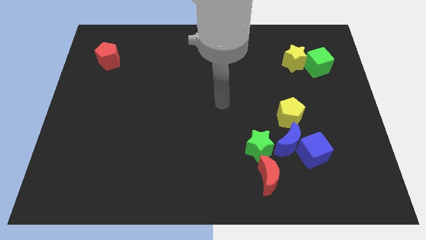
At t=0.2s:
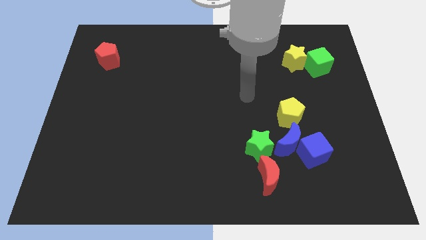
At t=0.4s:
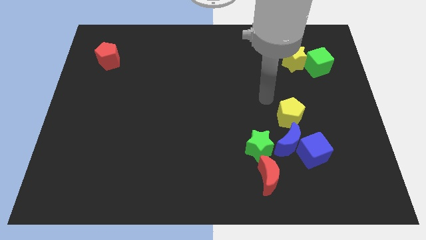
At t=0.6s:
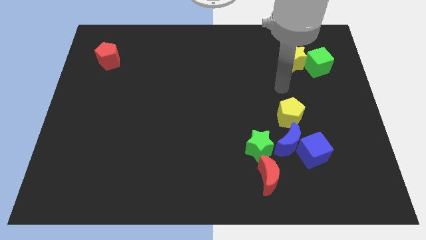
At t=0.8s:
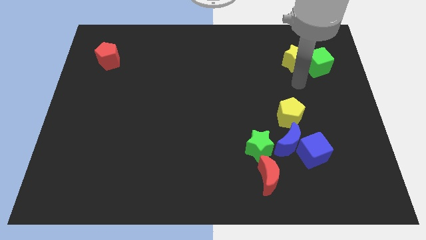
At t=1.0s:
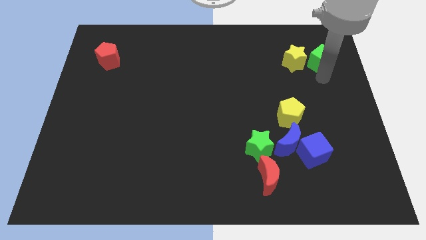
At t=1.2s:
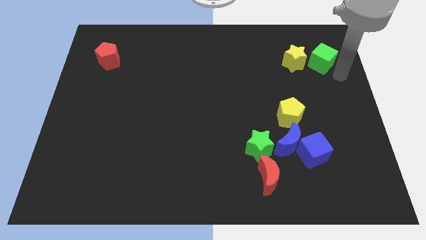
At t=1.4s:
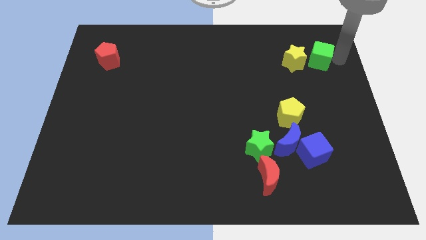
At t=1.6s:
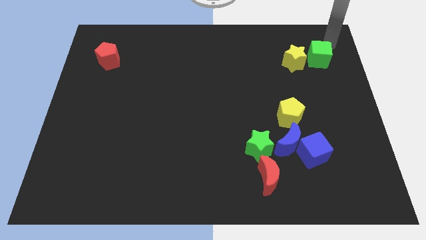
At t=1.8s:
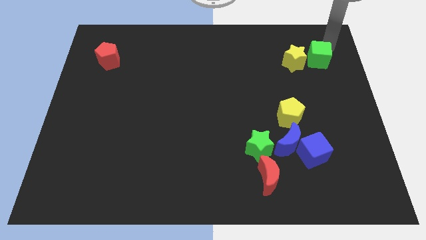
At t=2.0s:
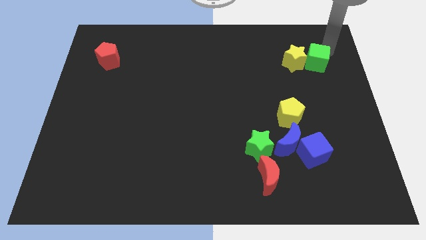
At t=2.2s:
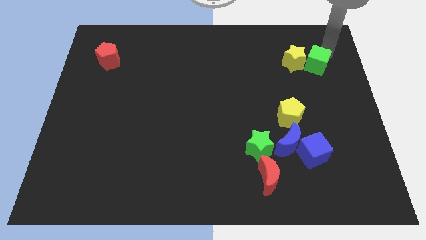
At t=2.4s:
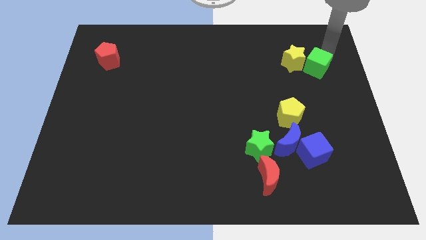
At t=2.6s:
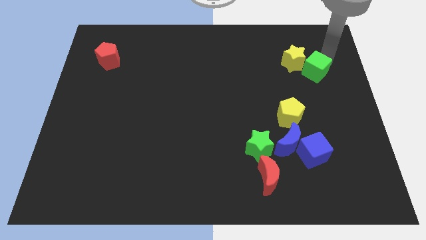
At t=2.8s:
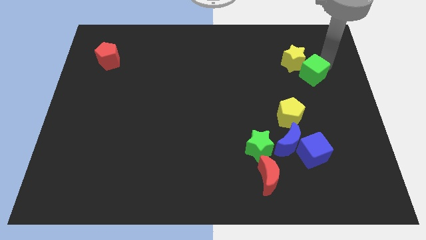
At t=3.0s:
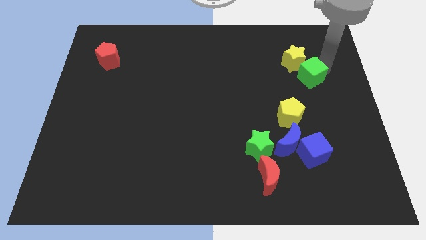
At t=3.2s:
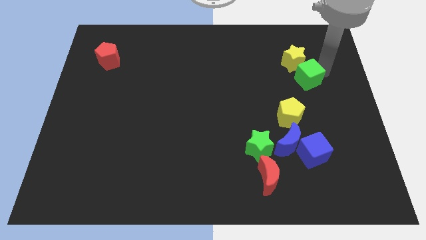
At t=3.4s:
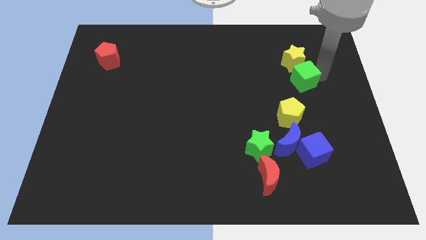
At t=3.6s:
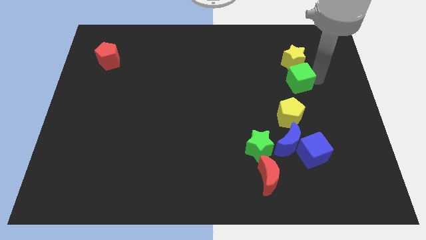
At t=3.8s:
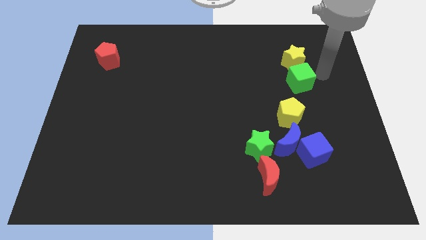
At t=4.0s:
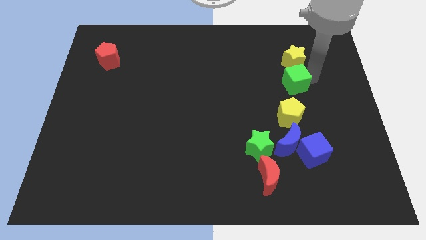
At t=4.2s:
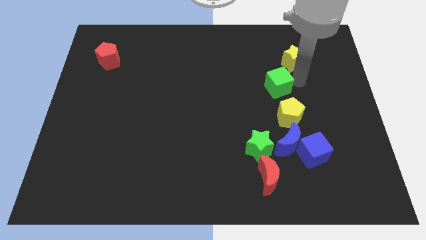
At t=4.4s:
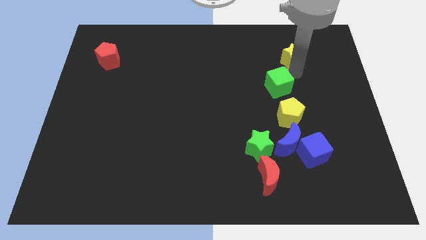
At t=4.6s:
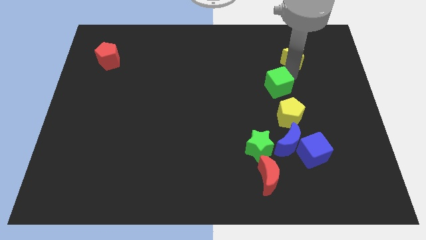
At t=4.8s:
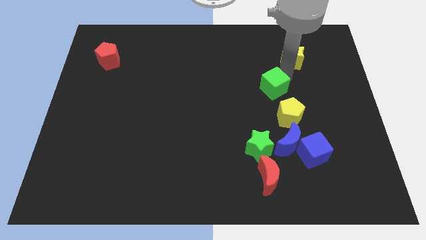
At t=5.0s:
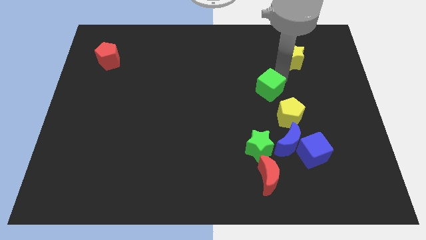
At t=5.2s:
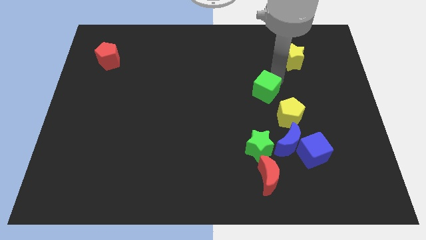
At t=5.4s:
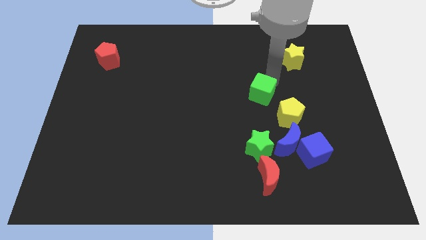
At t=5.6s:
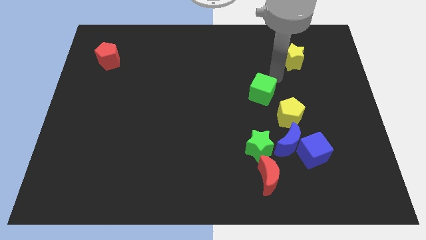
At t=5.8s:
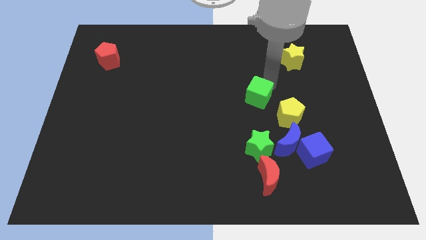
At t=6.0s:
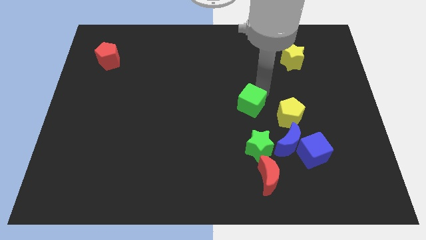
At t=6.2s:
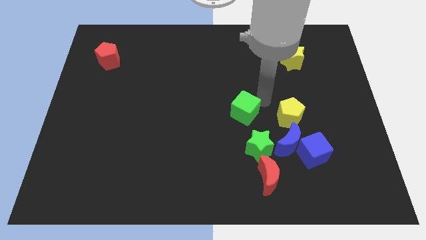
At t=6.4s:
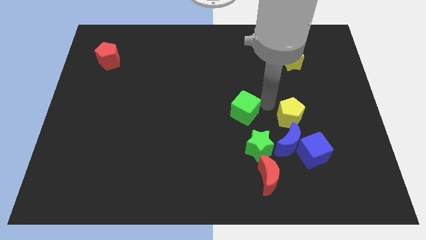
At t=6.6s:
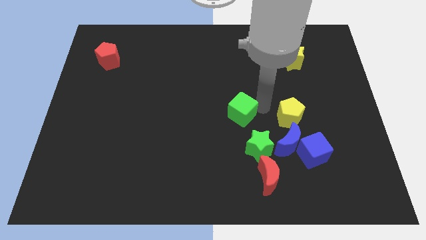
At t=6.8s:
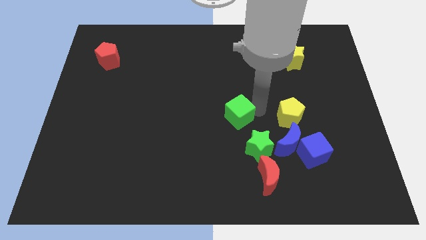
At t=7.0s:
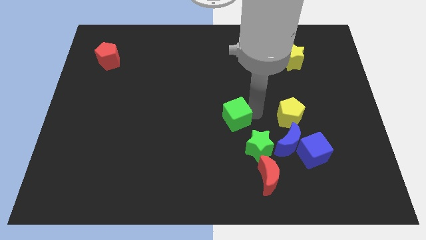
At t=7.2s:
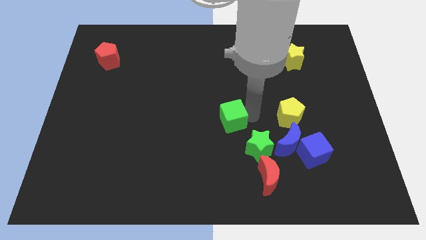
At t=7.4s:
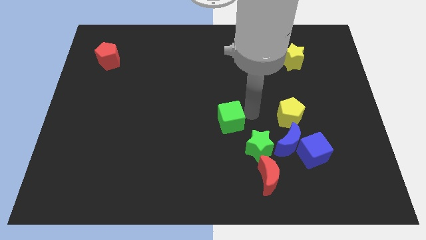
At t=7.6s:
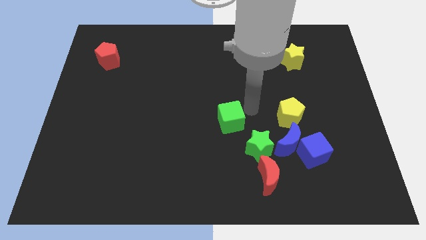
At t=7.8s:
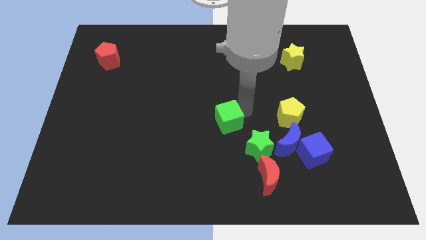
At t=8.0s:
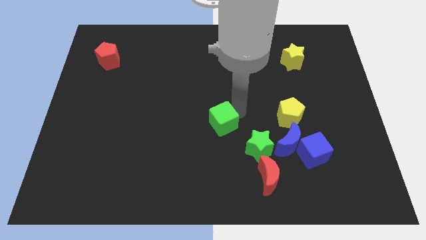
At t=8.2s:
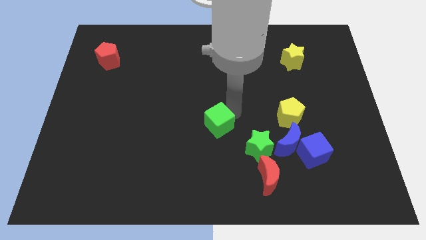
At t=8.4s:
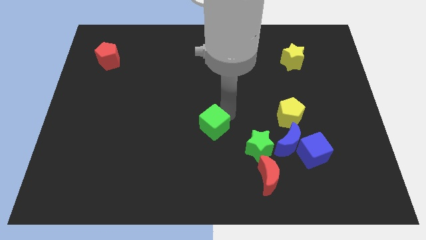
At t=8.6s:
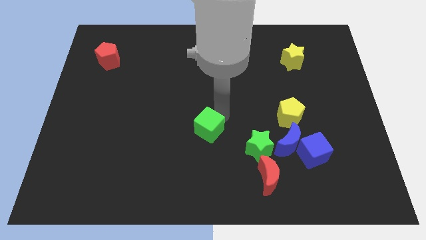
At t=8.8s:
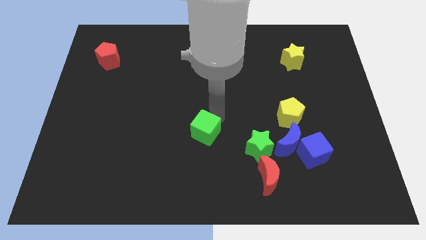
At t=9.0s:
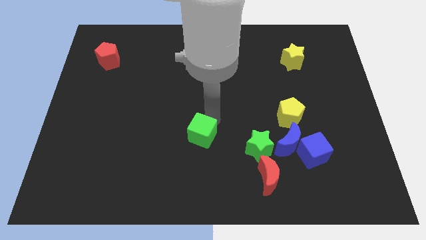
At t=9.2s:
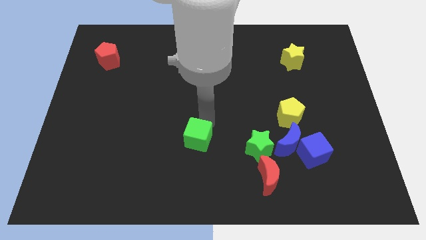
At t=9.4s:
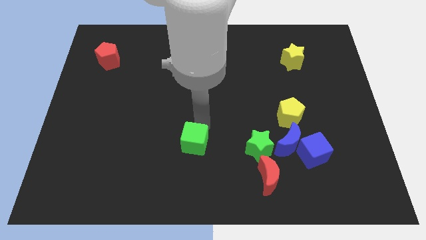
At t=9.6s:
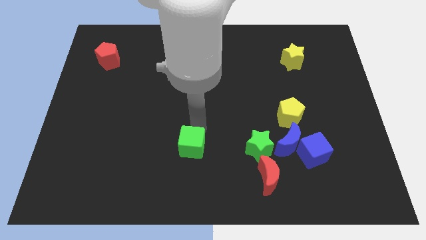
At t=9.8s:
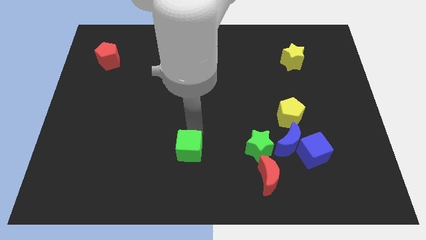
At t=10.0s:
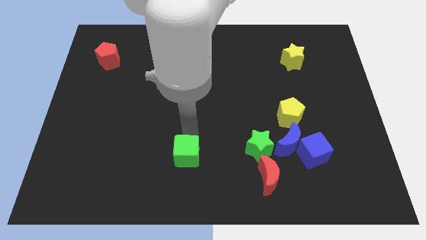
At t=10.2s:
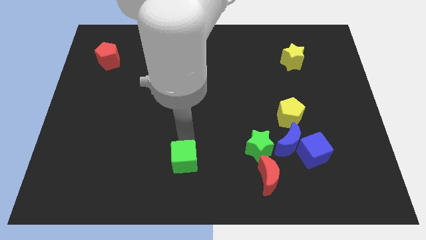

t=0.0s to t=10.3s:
slide the green cube to the bottom

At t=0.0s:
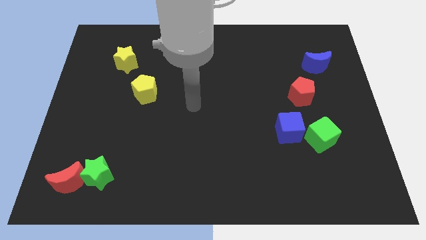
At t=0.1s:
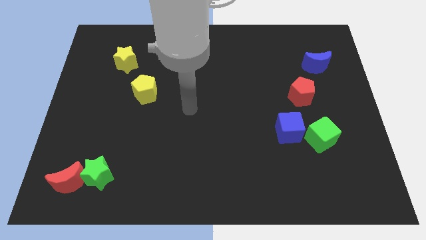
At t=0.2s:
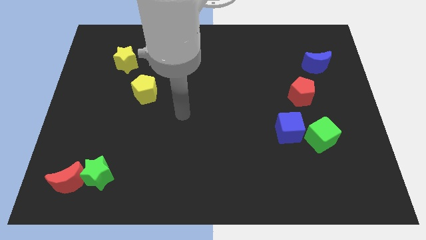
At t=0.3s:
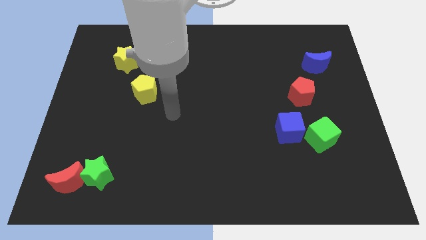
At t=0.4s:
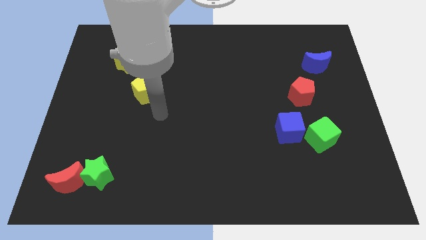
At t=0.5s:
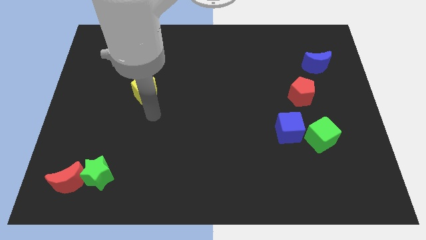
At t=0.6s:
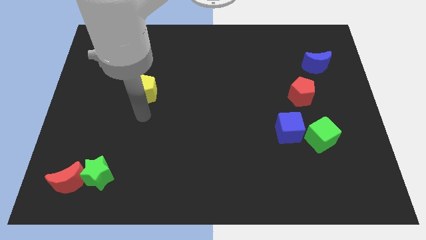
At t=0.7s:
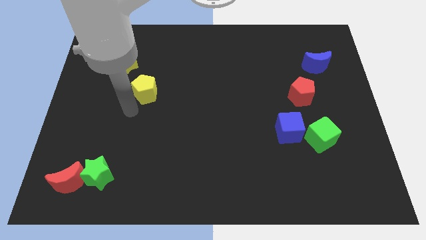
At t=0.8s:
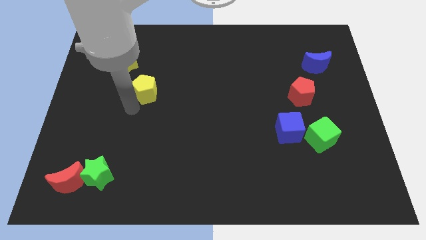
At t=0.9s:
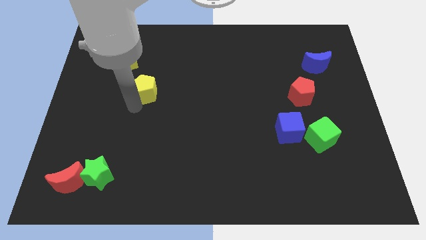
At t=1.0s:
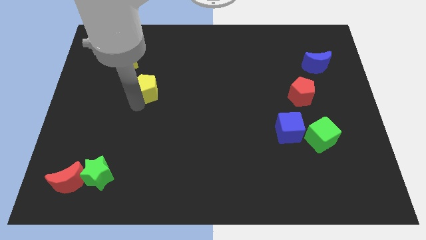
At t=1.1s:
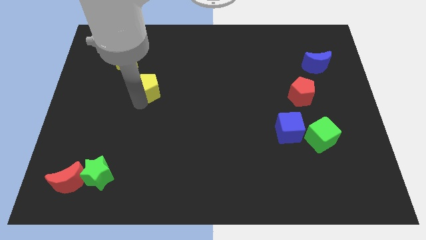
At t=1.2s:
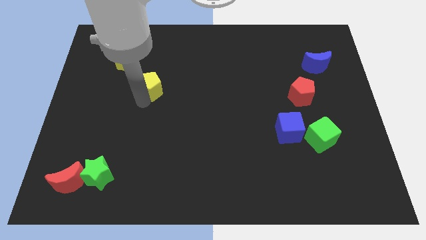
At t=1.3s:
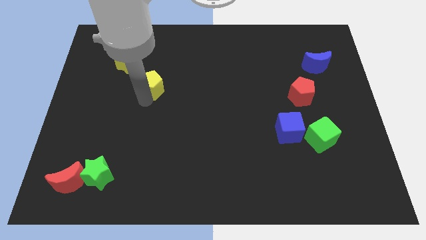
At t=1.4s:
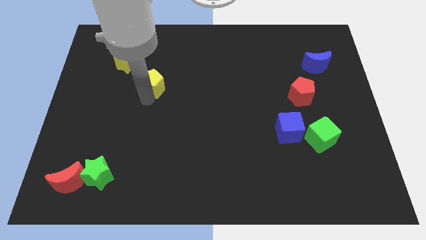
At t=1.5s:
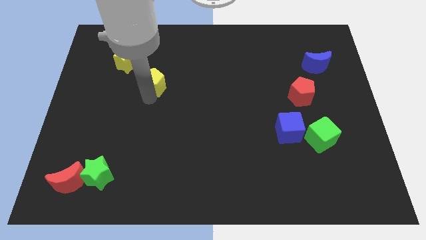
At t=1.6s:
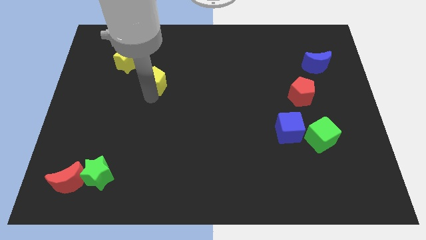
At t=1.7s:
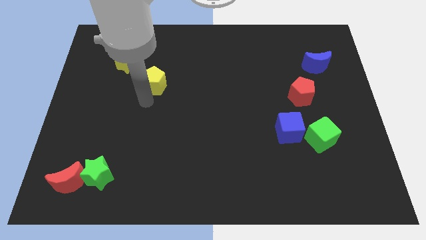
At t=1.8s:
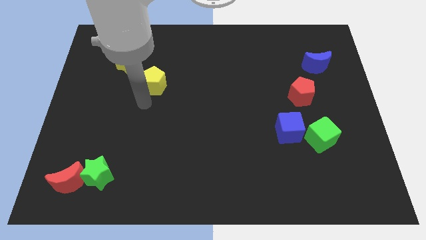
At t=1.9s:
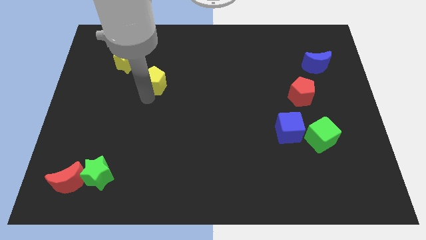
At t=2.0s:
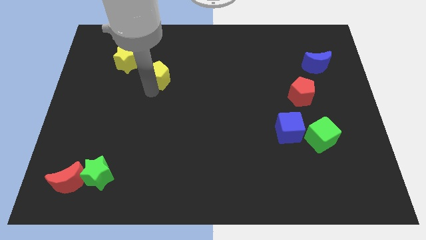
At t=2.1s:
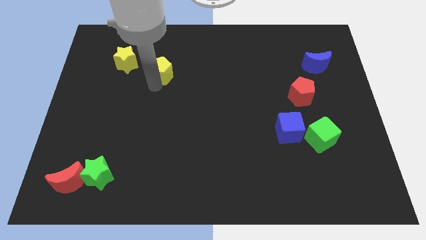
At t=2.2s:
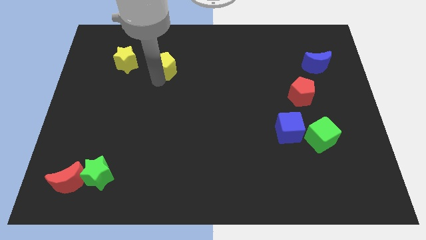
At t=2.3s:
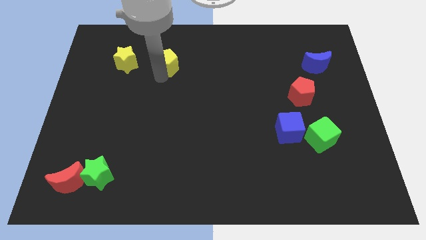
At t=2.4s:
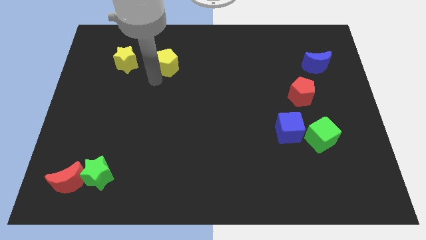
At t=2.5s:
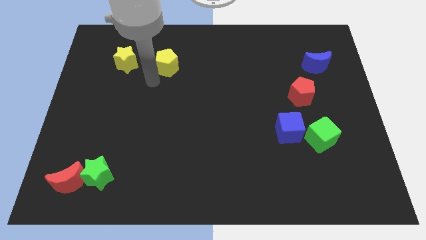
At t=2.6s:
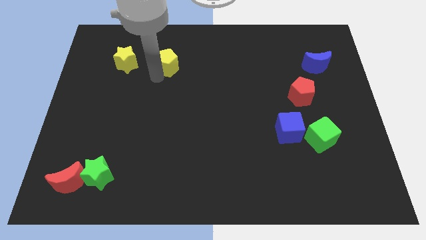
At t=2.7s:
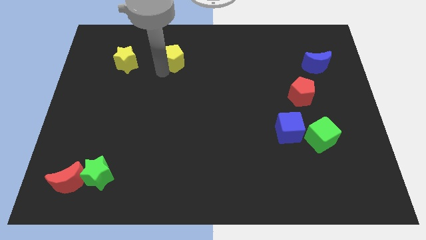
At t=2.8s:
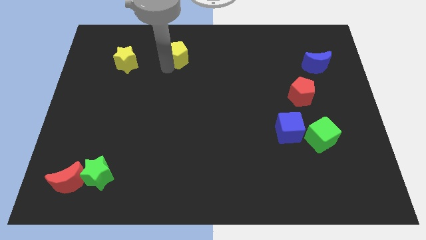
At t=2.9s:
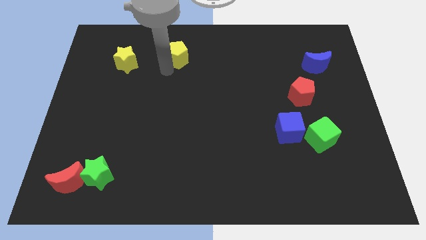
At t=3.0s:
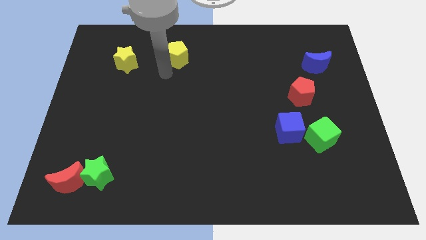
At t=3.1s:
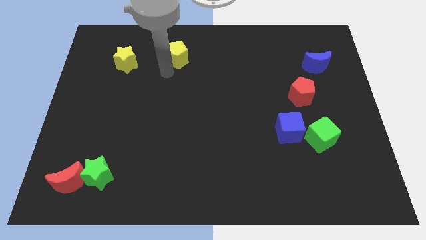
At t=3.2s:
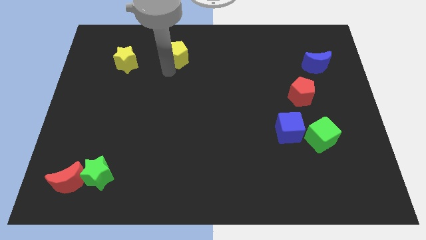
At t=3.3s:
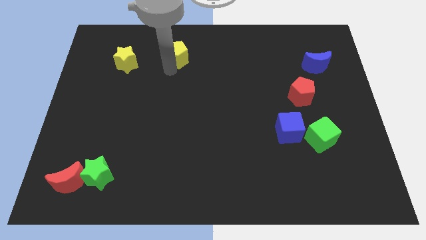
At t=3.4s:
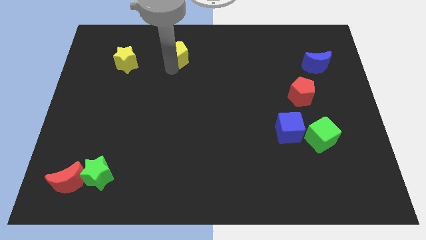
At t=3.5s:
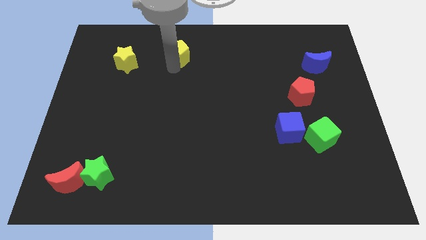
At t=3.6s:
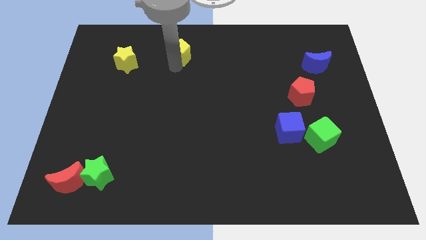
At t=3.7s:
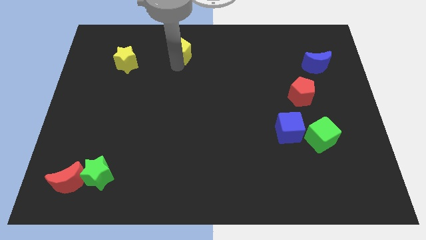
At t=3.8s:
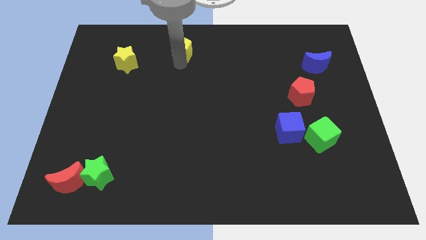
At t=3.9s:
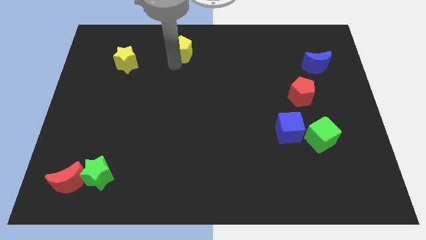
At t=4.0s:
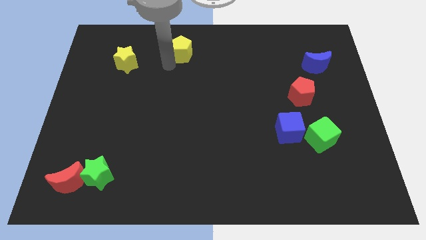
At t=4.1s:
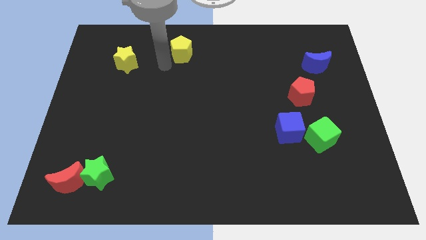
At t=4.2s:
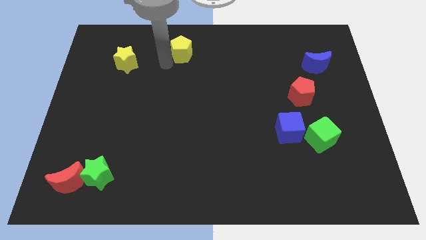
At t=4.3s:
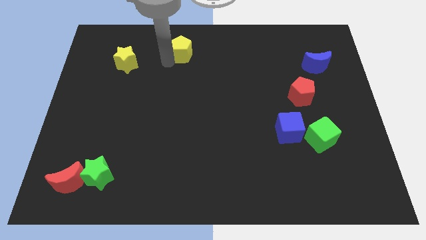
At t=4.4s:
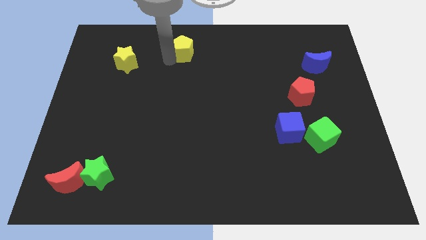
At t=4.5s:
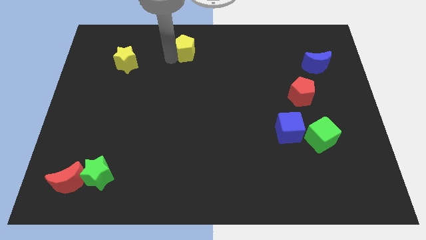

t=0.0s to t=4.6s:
put the yellow pentagon to the top side
